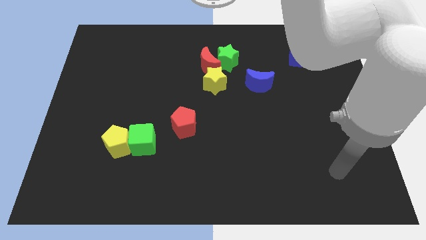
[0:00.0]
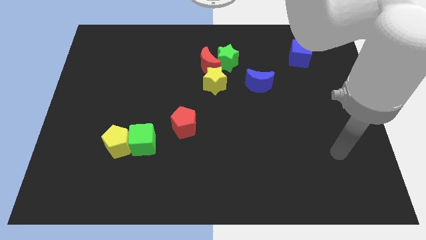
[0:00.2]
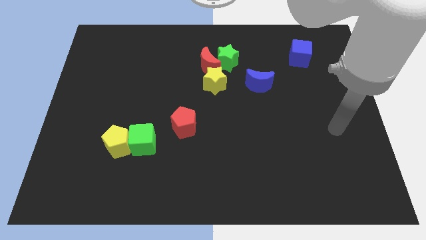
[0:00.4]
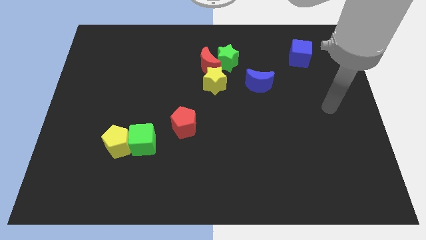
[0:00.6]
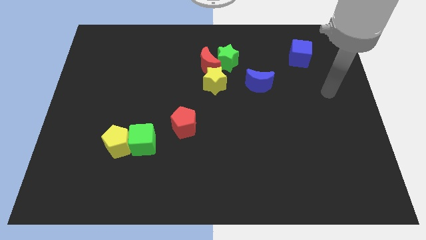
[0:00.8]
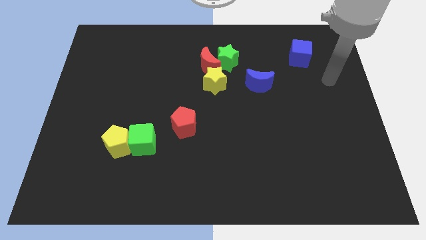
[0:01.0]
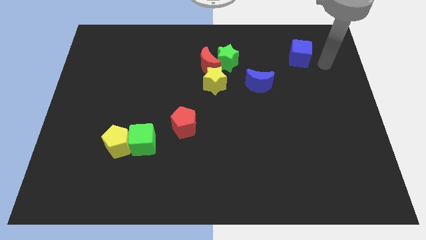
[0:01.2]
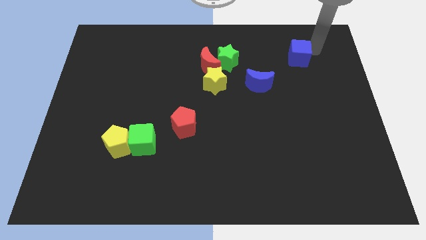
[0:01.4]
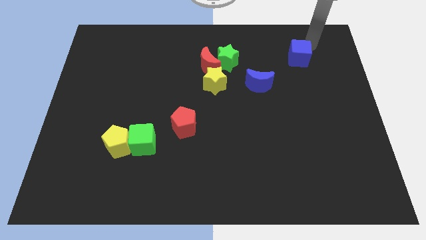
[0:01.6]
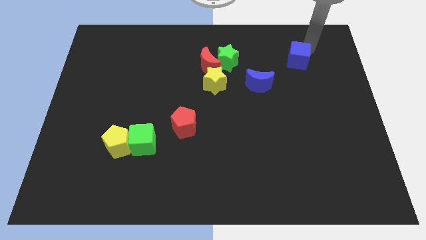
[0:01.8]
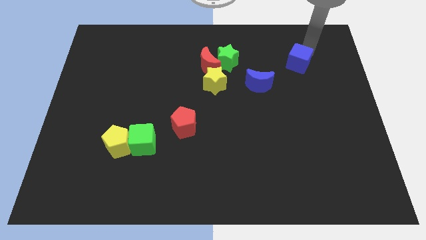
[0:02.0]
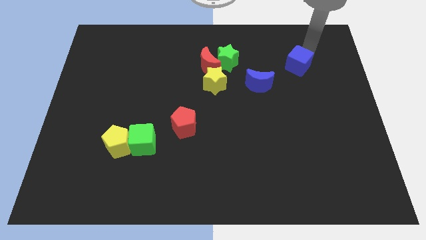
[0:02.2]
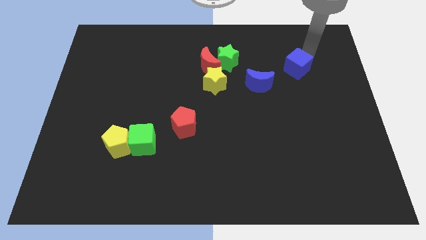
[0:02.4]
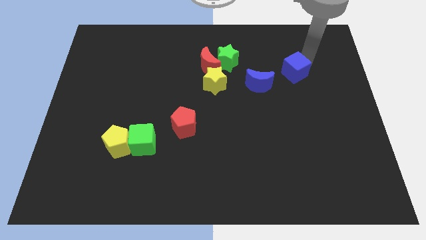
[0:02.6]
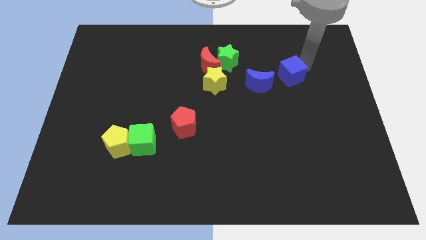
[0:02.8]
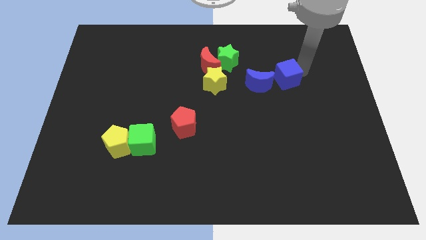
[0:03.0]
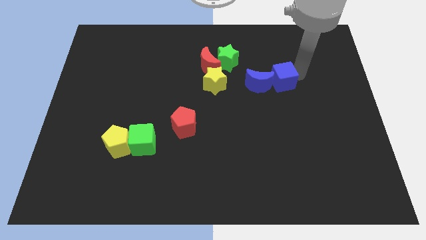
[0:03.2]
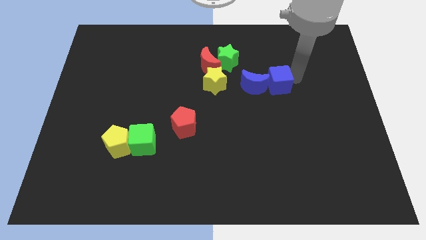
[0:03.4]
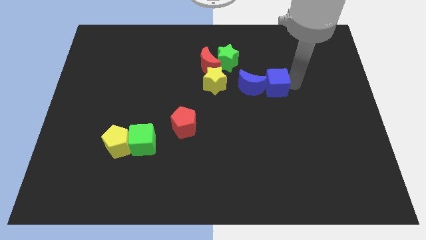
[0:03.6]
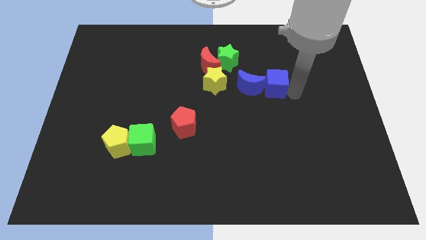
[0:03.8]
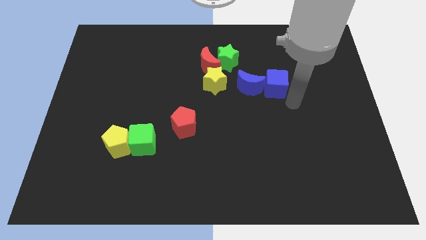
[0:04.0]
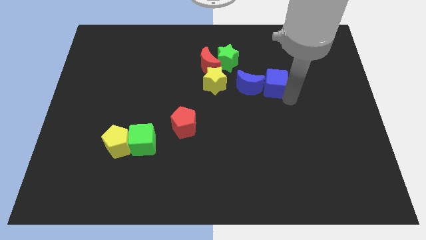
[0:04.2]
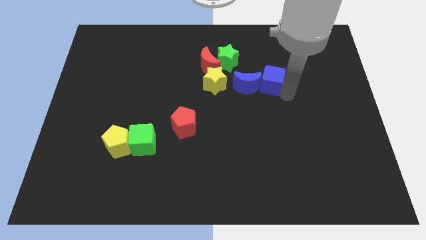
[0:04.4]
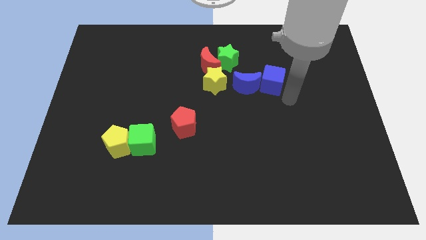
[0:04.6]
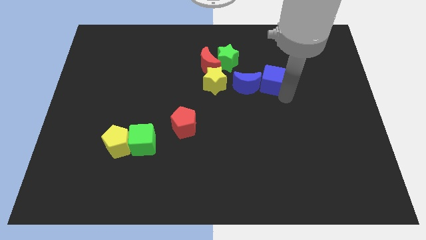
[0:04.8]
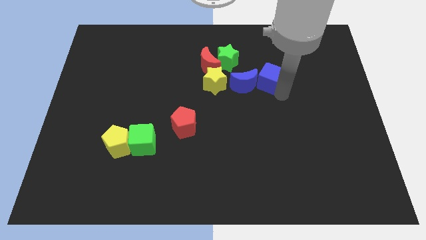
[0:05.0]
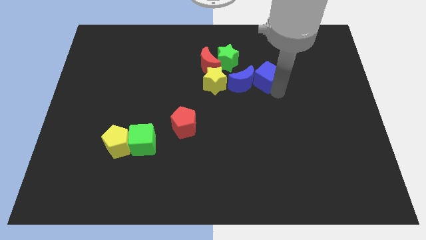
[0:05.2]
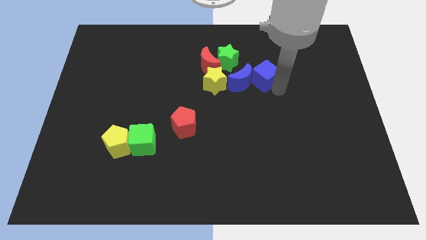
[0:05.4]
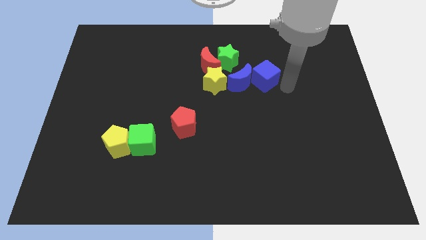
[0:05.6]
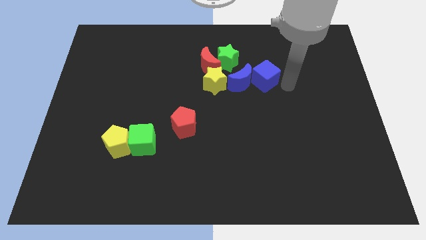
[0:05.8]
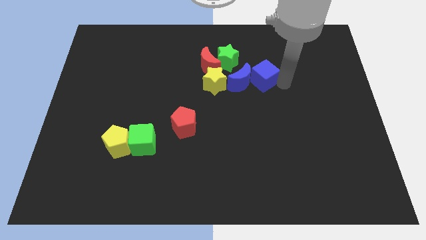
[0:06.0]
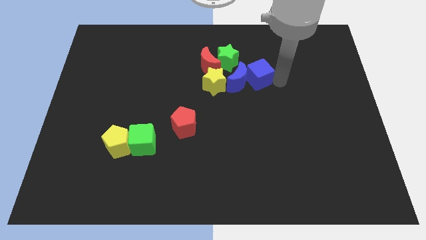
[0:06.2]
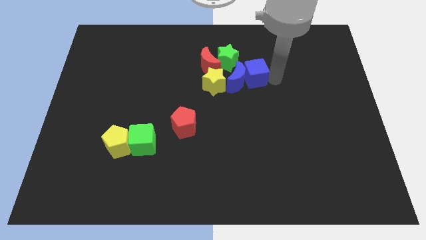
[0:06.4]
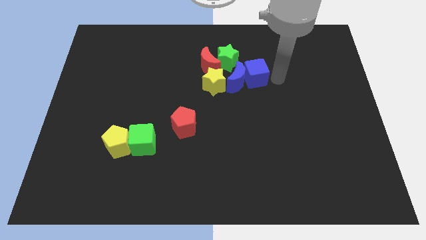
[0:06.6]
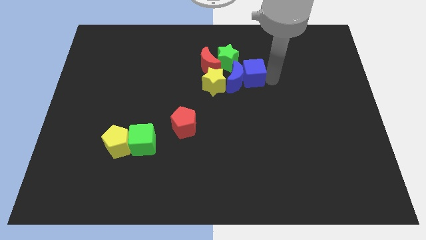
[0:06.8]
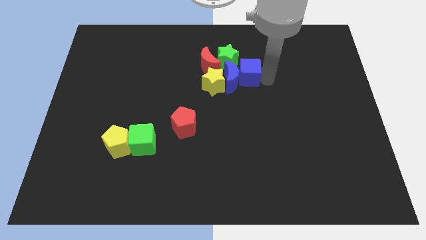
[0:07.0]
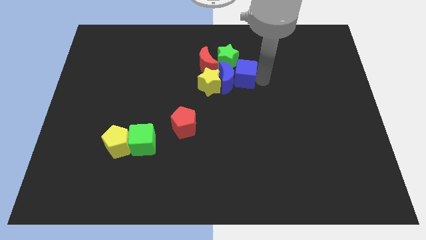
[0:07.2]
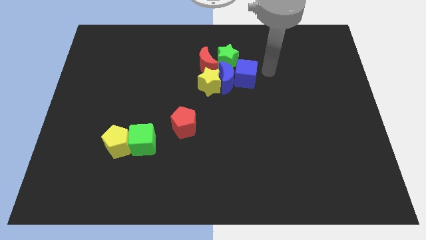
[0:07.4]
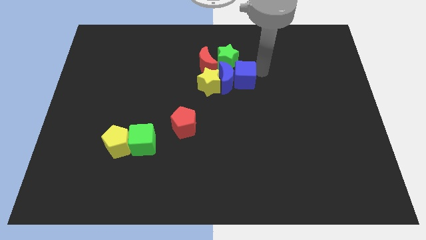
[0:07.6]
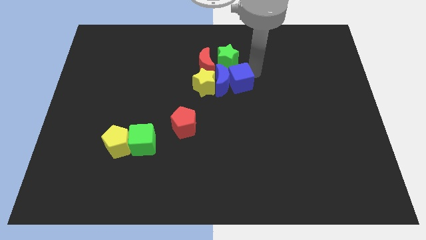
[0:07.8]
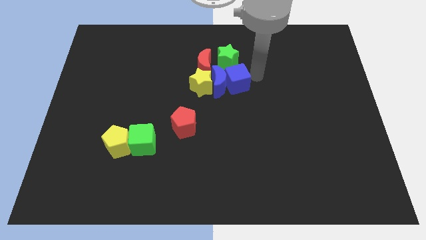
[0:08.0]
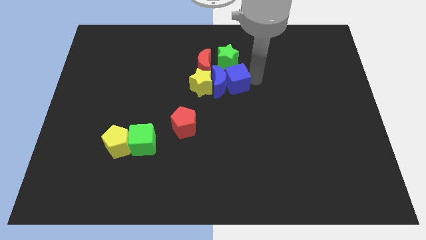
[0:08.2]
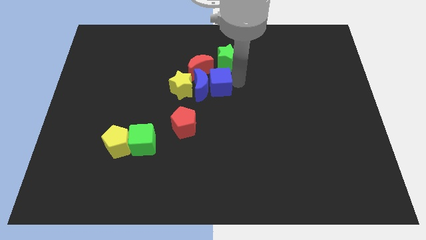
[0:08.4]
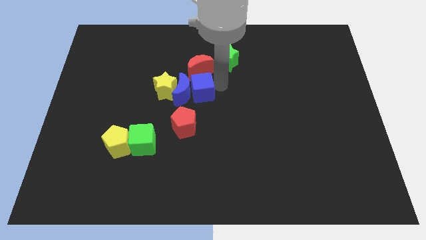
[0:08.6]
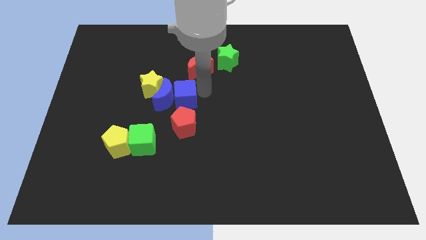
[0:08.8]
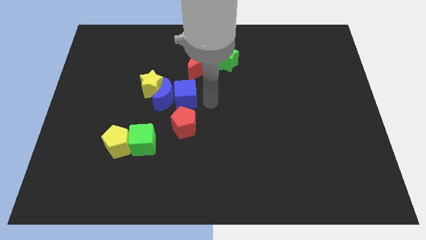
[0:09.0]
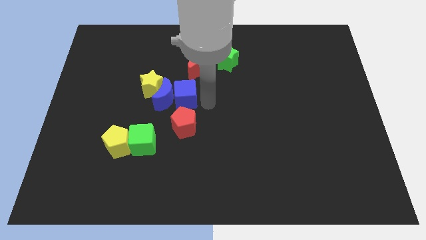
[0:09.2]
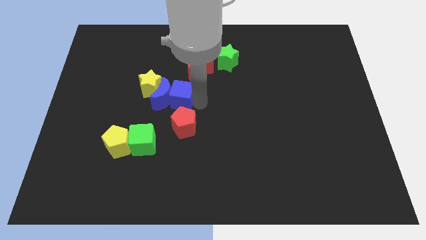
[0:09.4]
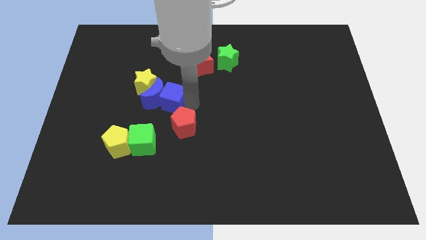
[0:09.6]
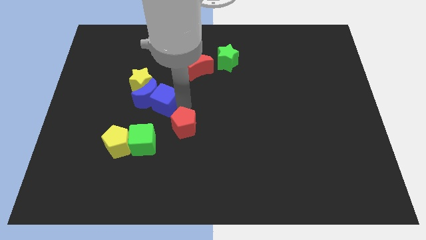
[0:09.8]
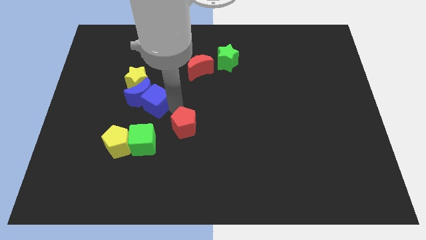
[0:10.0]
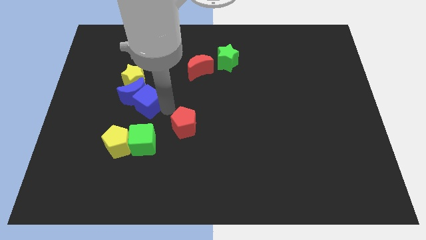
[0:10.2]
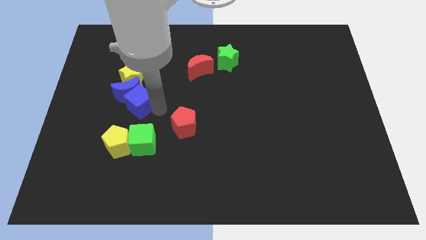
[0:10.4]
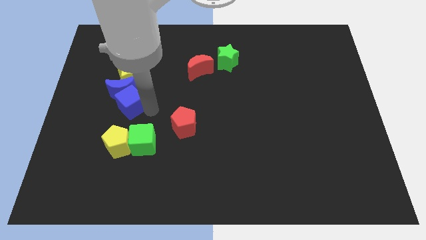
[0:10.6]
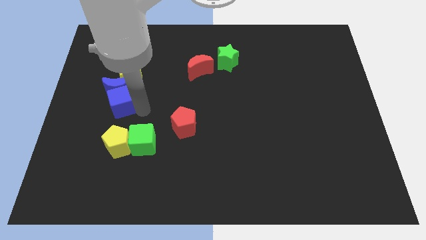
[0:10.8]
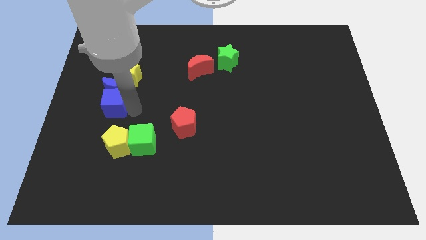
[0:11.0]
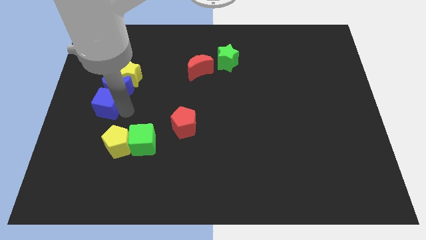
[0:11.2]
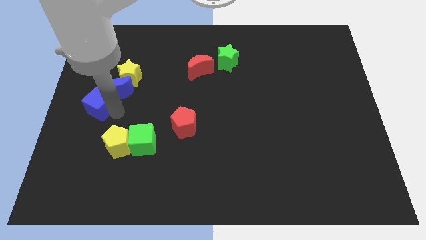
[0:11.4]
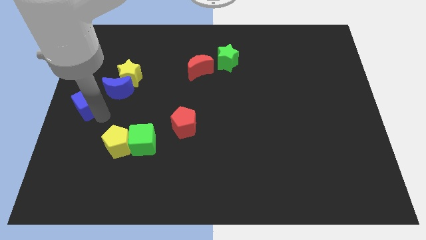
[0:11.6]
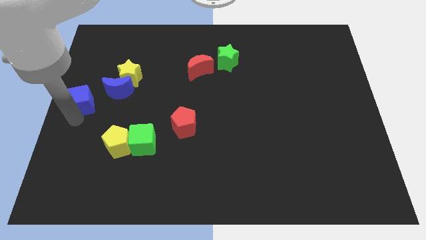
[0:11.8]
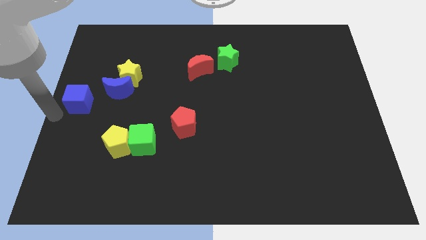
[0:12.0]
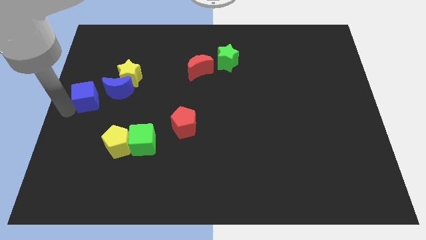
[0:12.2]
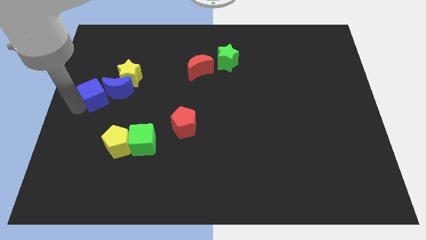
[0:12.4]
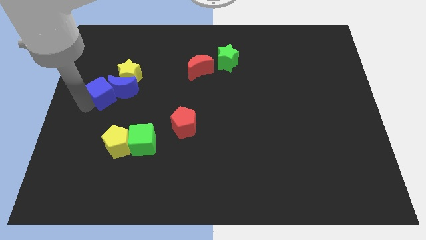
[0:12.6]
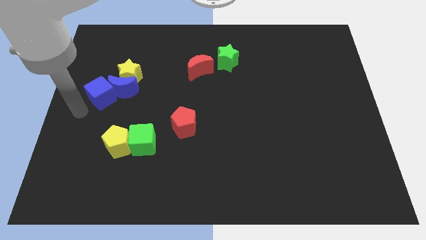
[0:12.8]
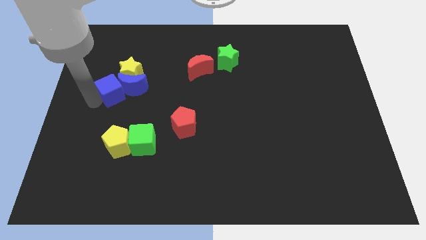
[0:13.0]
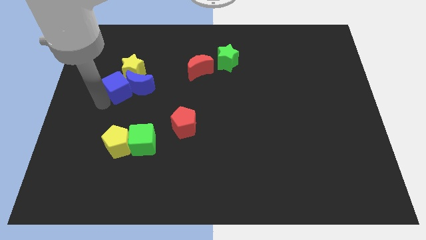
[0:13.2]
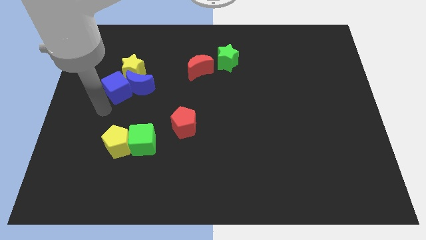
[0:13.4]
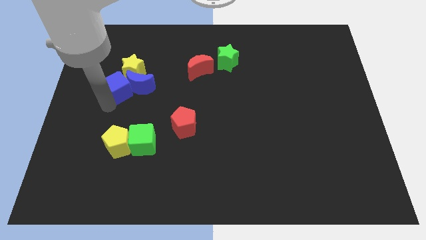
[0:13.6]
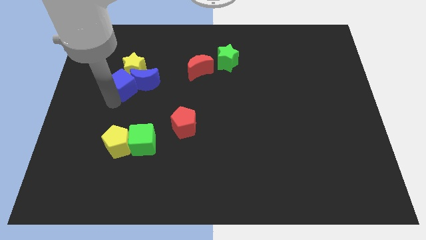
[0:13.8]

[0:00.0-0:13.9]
slide the blue cube to the yellow star

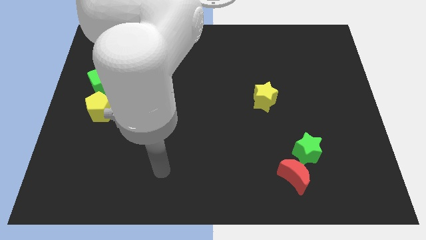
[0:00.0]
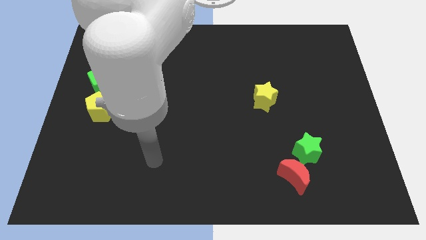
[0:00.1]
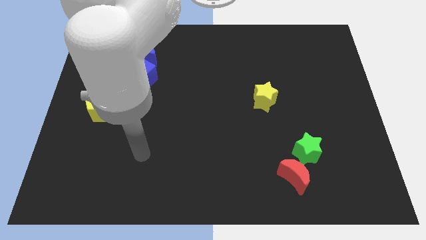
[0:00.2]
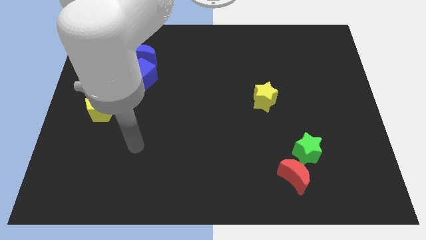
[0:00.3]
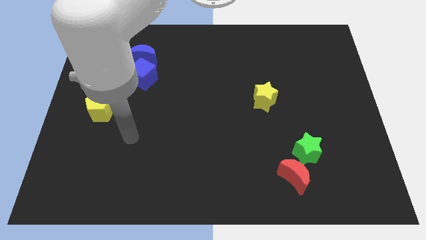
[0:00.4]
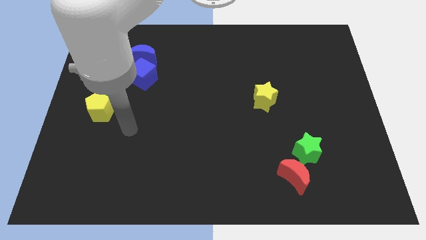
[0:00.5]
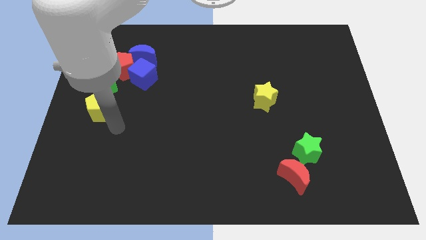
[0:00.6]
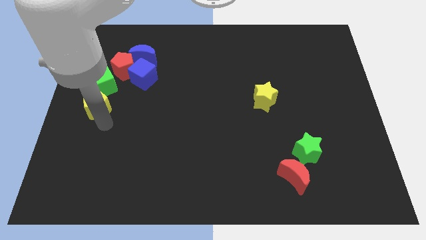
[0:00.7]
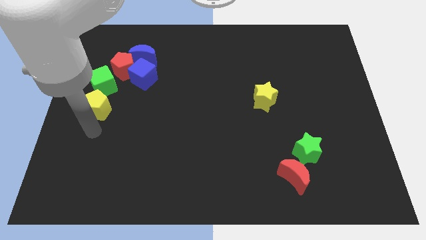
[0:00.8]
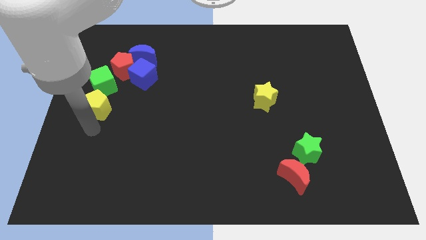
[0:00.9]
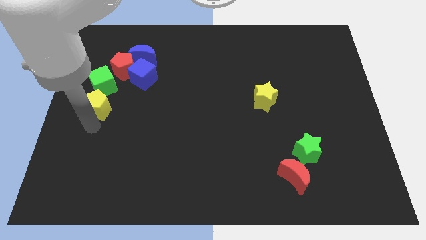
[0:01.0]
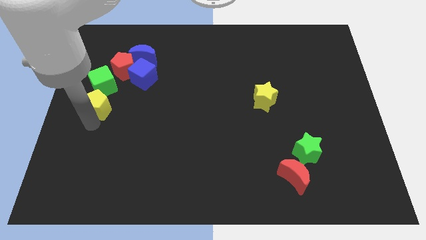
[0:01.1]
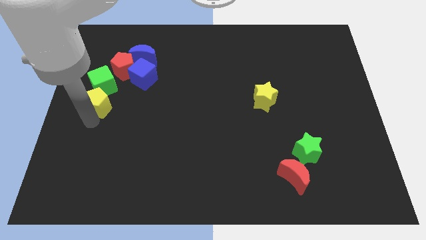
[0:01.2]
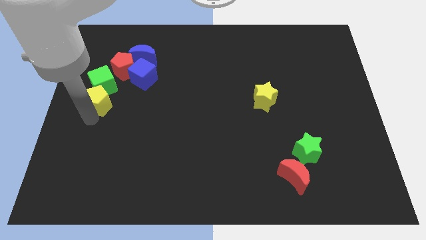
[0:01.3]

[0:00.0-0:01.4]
slide the yellow pentagon next to the green cube
